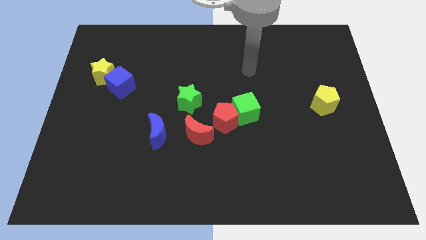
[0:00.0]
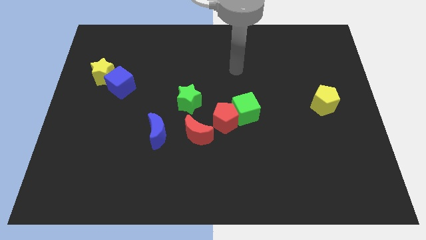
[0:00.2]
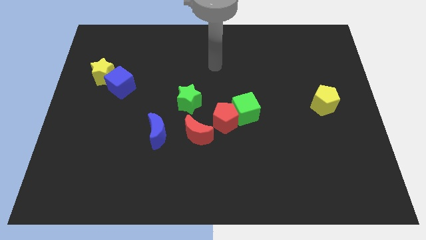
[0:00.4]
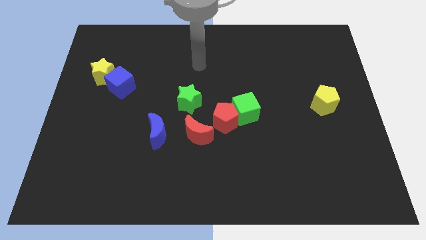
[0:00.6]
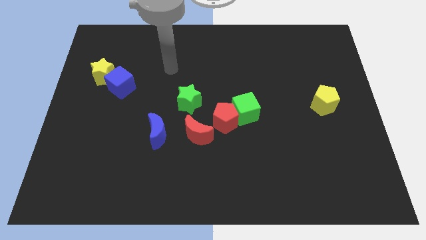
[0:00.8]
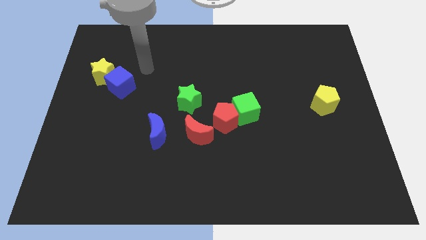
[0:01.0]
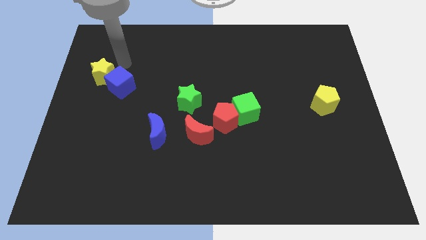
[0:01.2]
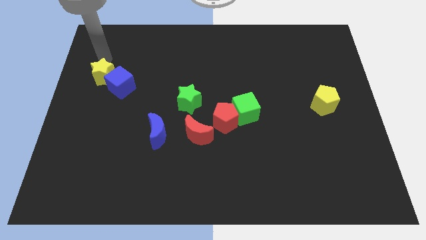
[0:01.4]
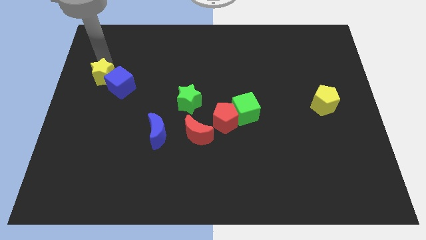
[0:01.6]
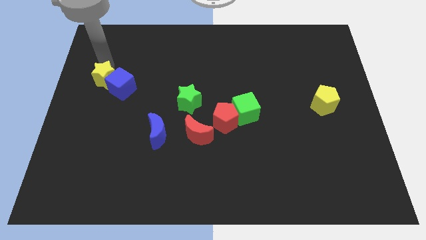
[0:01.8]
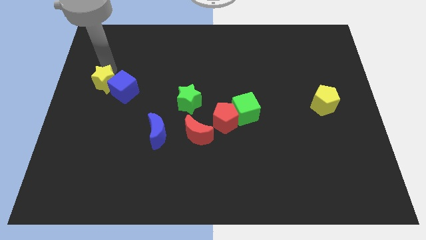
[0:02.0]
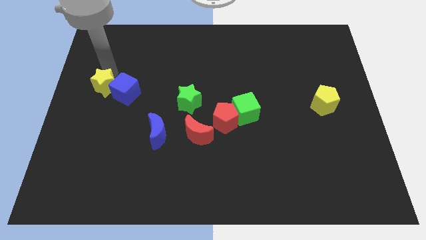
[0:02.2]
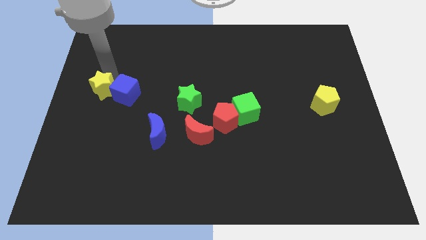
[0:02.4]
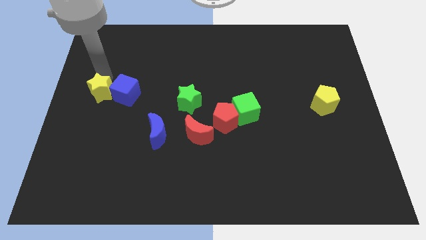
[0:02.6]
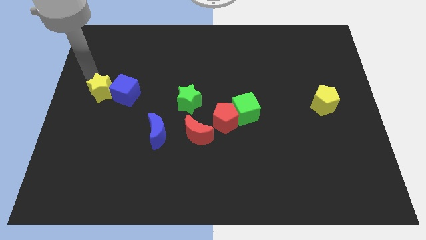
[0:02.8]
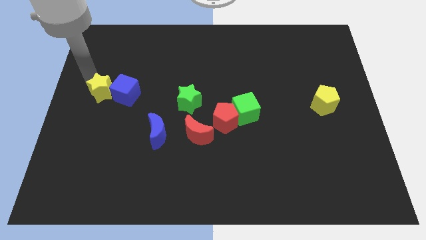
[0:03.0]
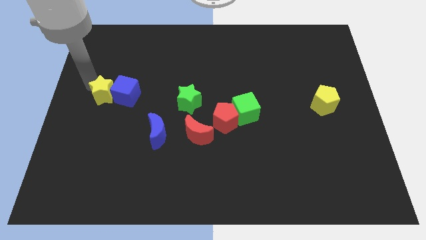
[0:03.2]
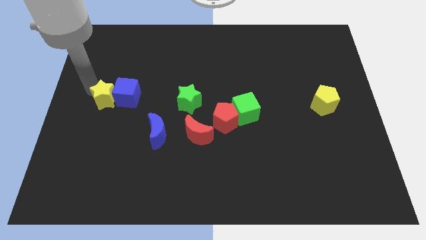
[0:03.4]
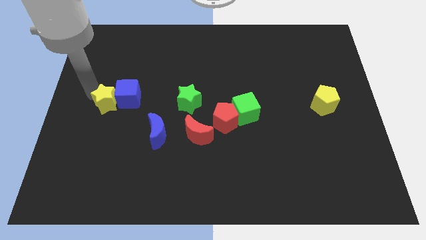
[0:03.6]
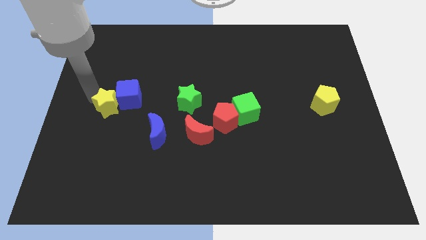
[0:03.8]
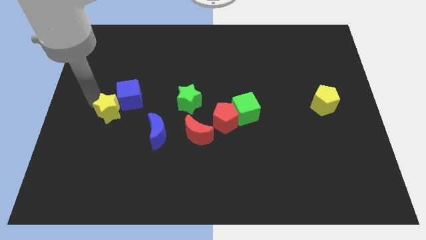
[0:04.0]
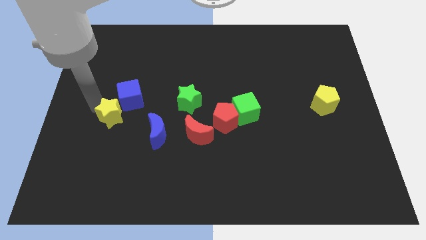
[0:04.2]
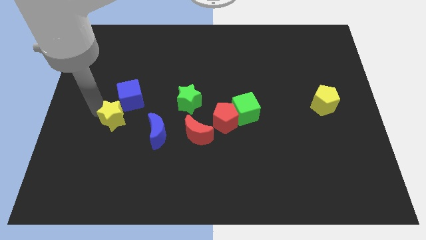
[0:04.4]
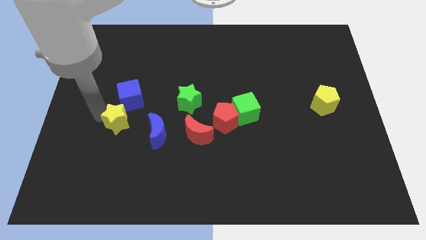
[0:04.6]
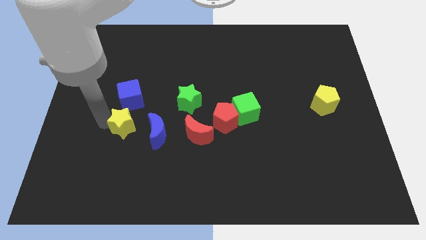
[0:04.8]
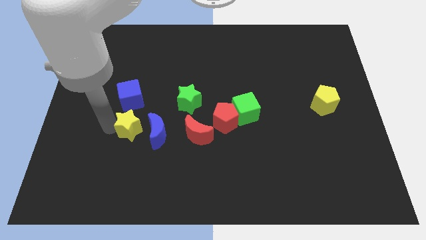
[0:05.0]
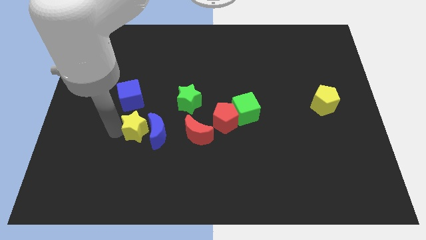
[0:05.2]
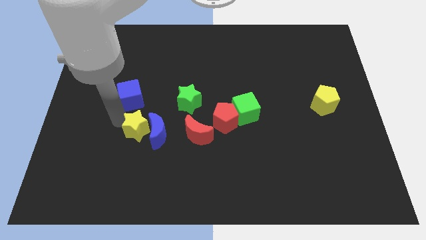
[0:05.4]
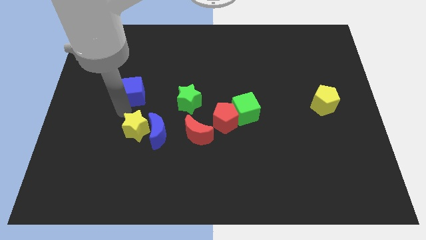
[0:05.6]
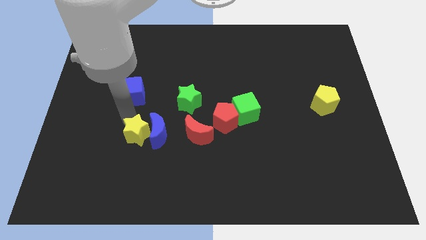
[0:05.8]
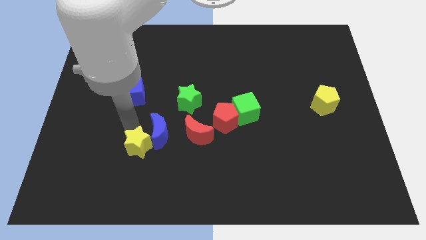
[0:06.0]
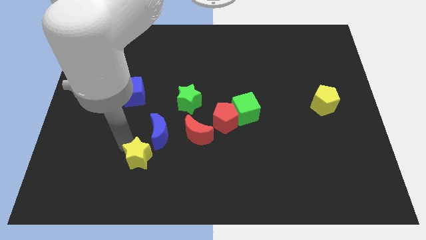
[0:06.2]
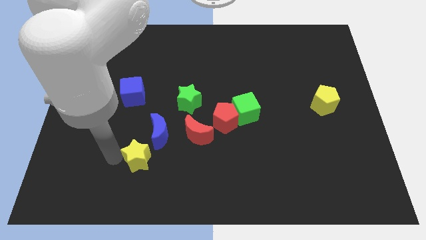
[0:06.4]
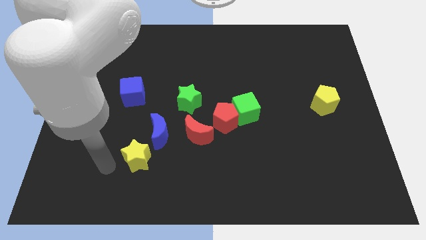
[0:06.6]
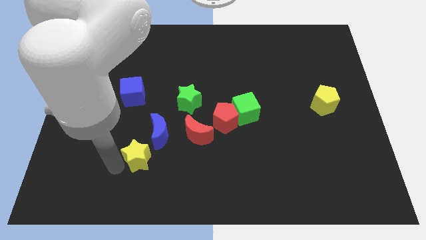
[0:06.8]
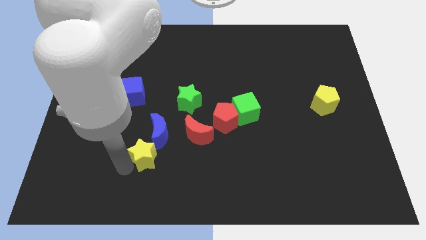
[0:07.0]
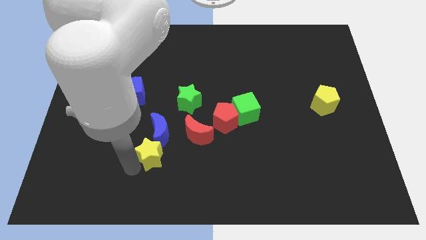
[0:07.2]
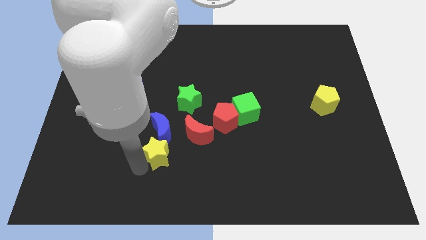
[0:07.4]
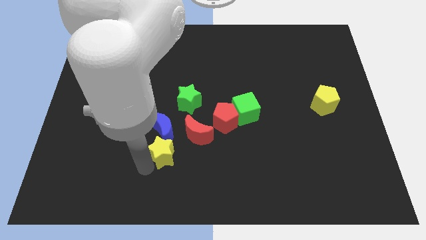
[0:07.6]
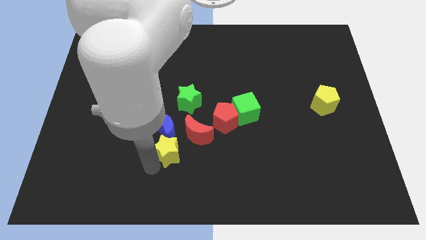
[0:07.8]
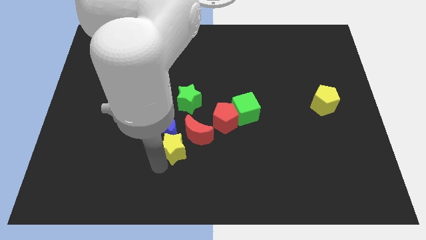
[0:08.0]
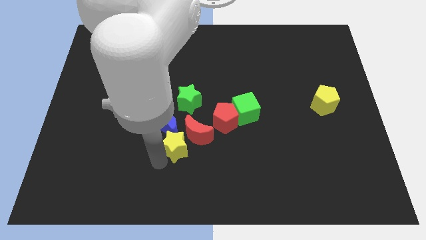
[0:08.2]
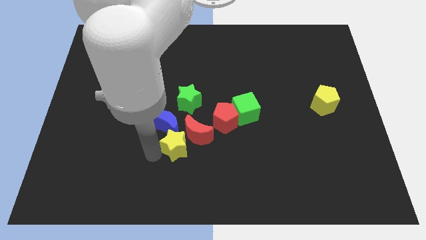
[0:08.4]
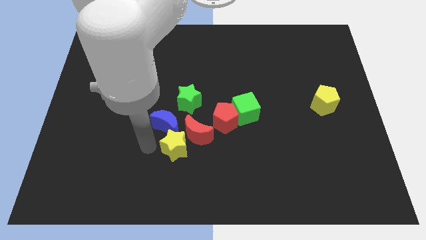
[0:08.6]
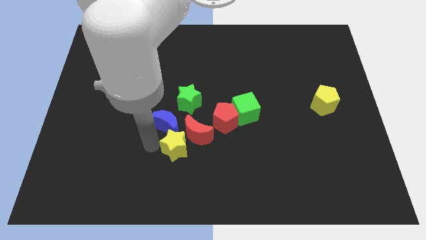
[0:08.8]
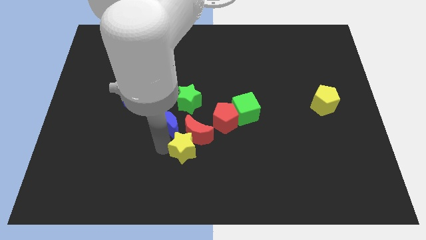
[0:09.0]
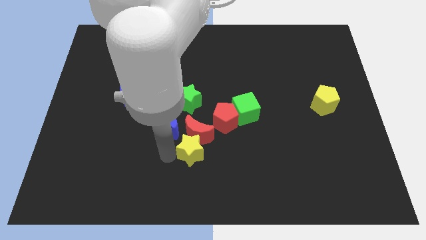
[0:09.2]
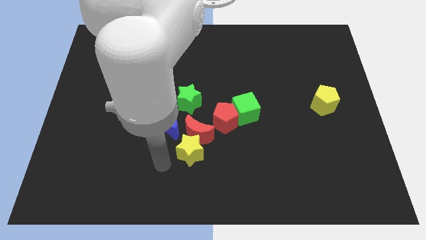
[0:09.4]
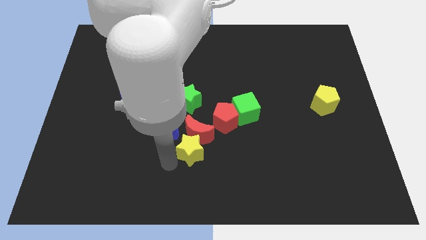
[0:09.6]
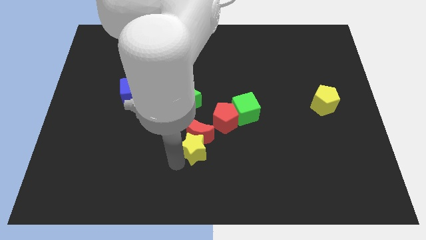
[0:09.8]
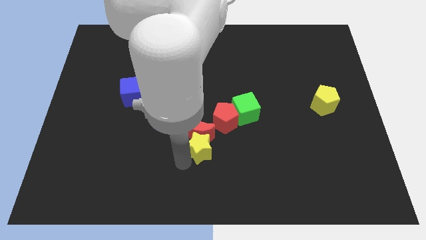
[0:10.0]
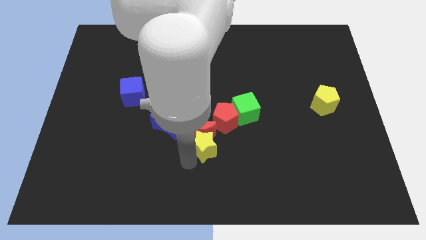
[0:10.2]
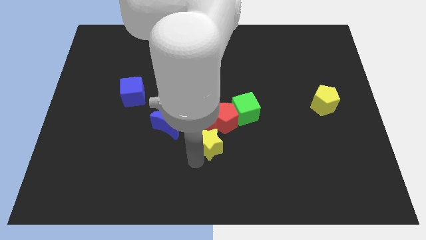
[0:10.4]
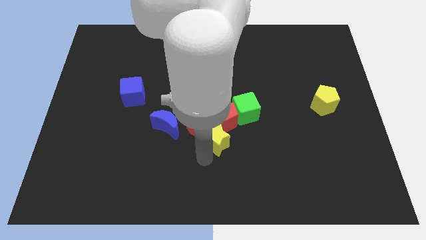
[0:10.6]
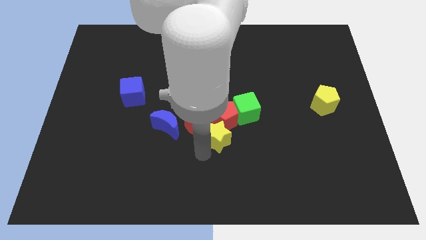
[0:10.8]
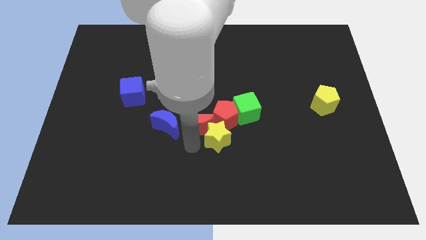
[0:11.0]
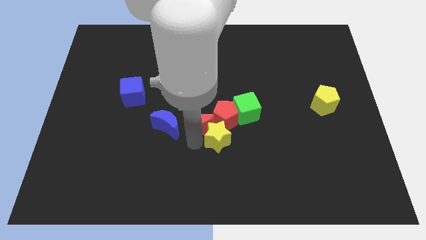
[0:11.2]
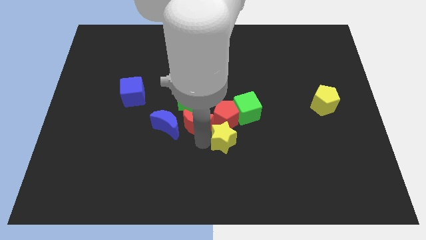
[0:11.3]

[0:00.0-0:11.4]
put the yellow star to the bottom right side of the red pentagon

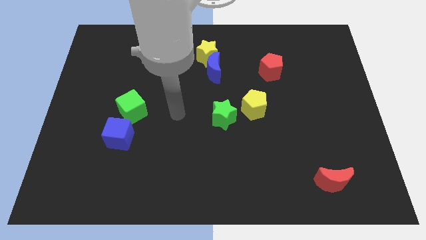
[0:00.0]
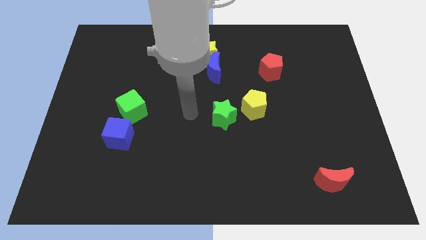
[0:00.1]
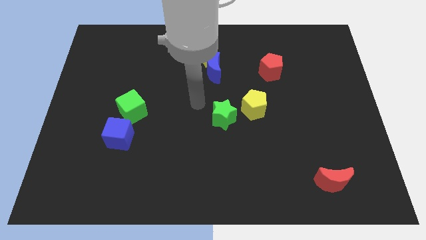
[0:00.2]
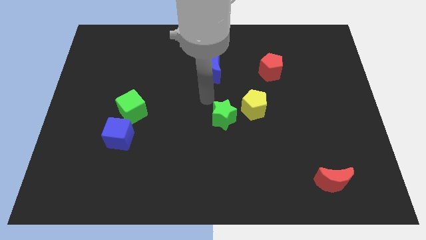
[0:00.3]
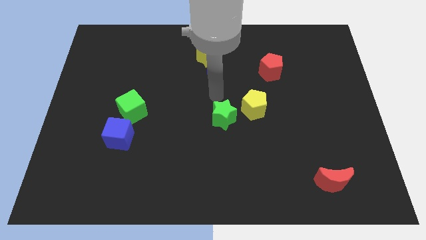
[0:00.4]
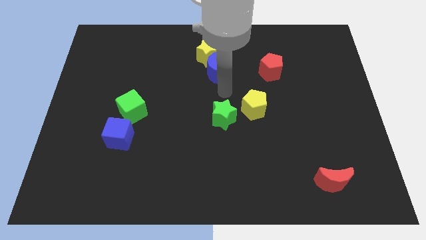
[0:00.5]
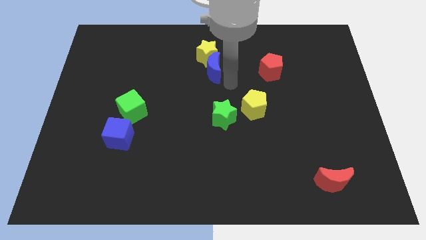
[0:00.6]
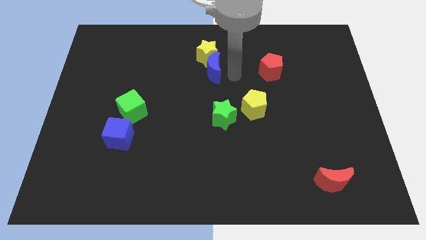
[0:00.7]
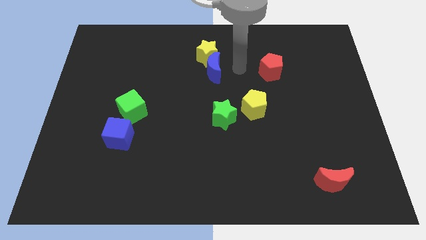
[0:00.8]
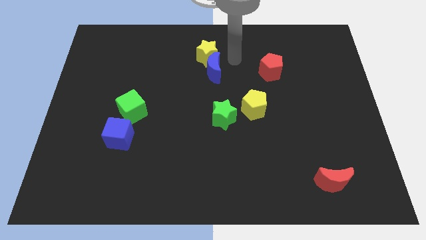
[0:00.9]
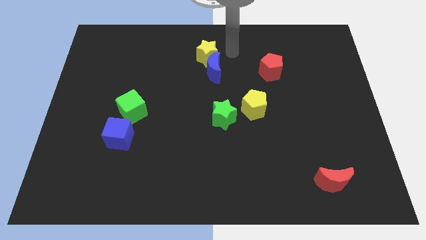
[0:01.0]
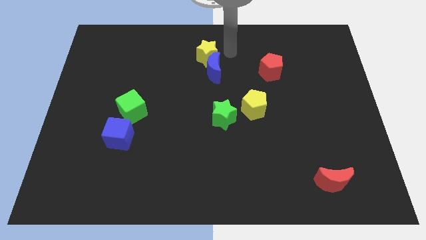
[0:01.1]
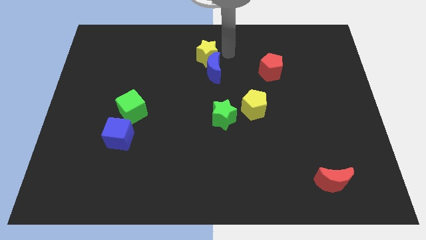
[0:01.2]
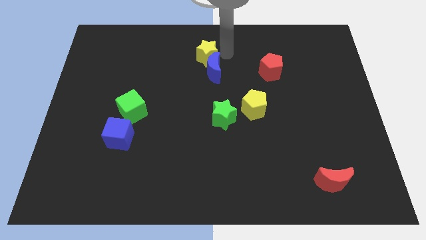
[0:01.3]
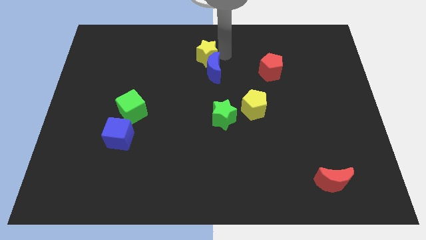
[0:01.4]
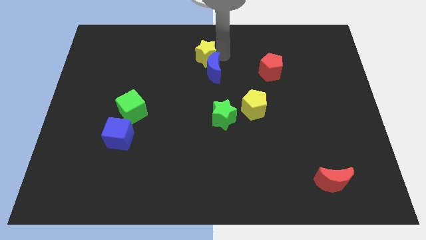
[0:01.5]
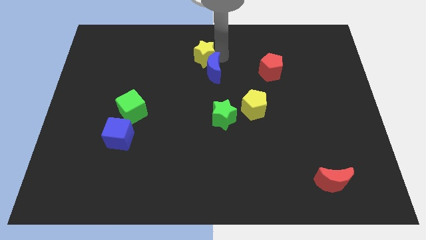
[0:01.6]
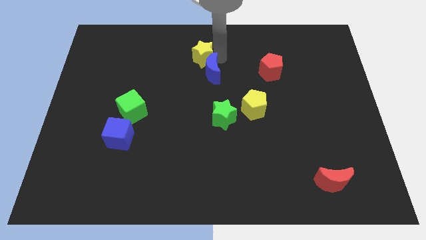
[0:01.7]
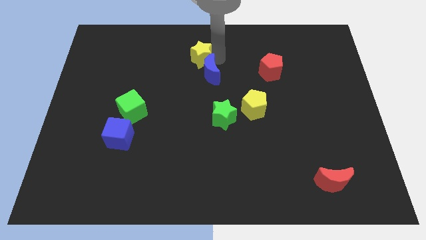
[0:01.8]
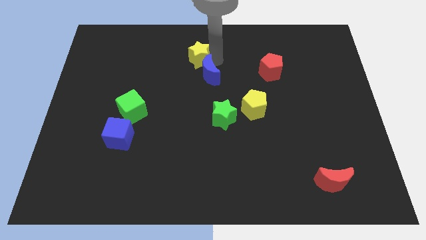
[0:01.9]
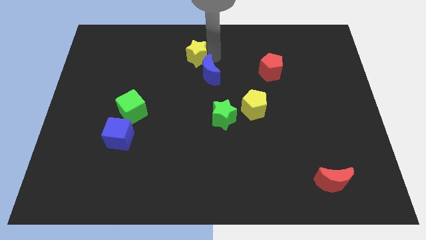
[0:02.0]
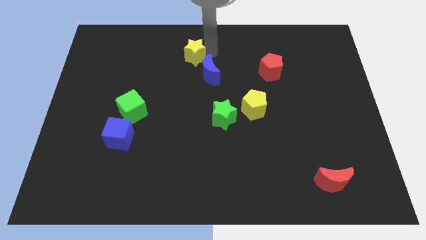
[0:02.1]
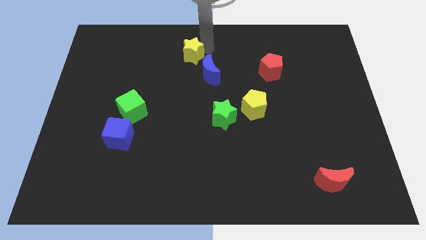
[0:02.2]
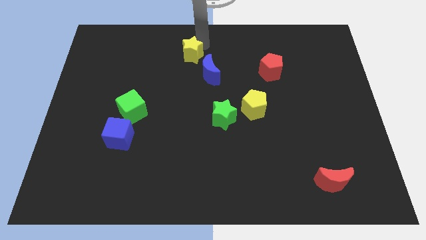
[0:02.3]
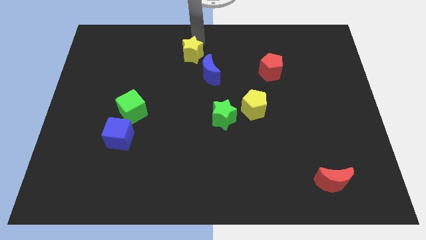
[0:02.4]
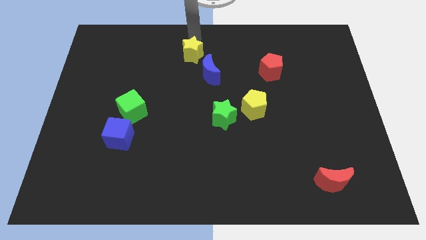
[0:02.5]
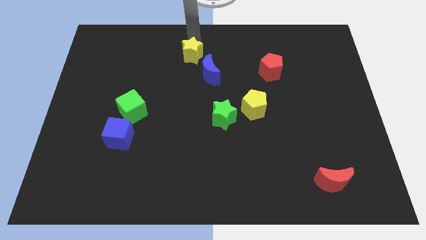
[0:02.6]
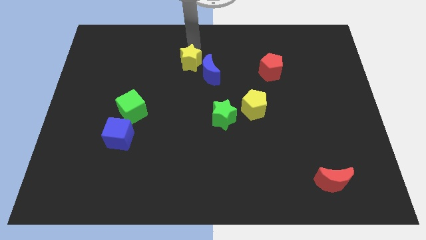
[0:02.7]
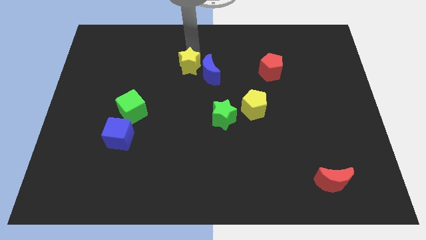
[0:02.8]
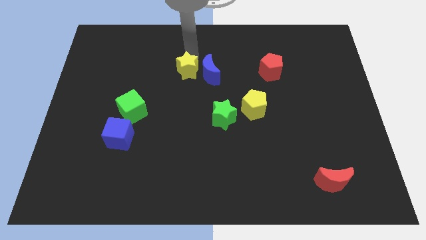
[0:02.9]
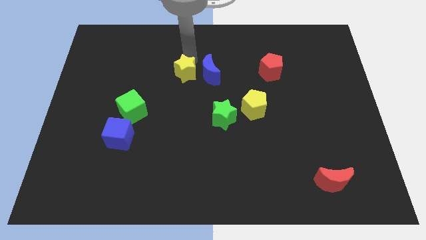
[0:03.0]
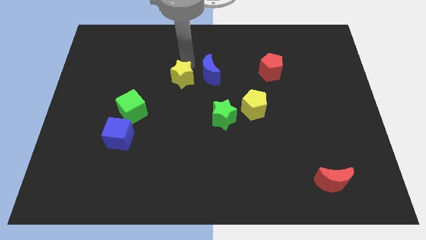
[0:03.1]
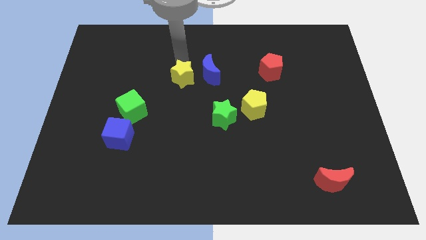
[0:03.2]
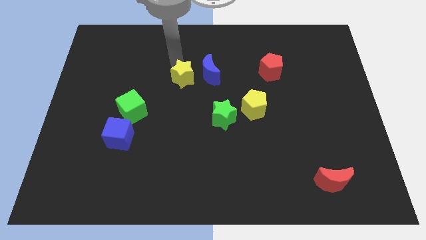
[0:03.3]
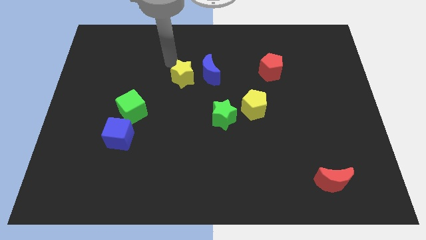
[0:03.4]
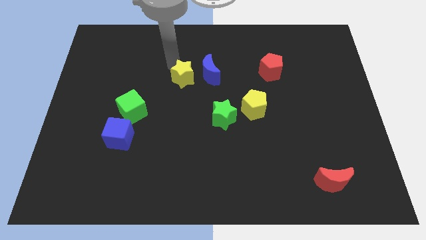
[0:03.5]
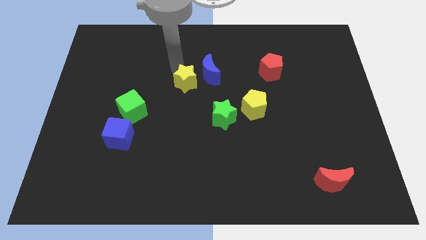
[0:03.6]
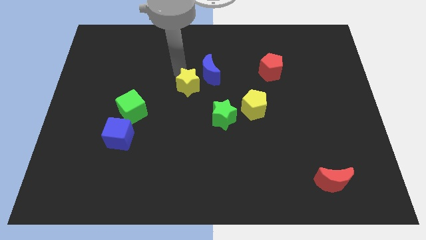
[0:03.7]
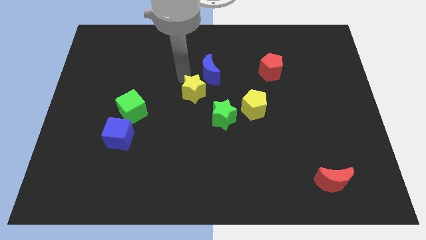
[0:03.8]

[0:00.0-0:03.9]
put the yellow star to the bottom of the blue moon
